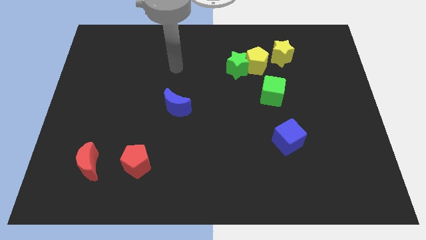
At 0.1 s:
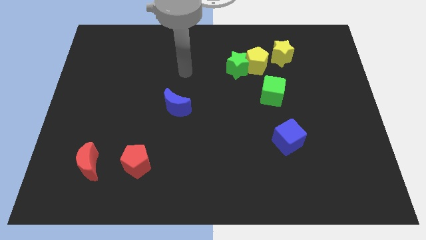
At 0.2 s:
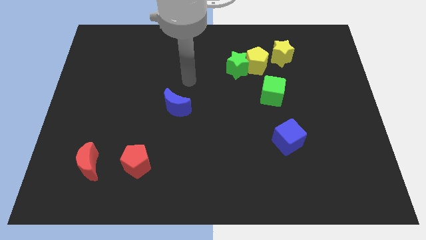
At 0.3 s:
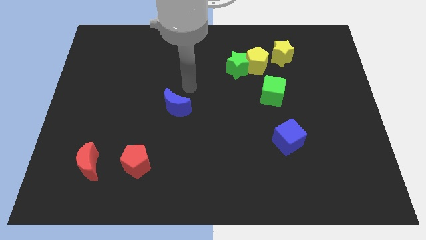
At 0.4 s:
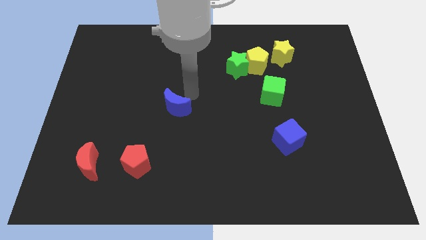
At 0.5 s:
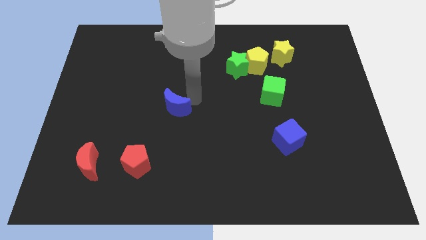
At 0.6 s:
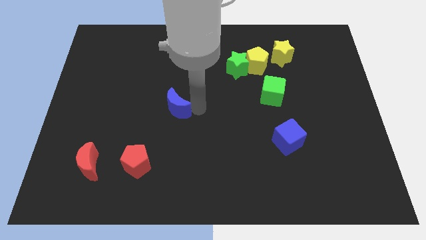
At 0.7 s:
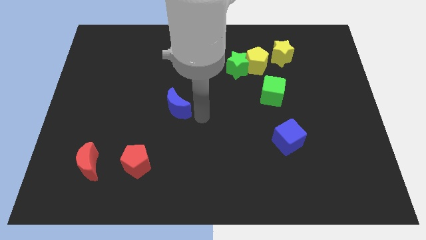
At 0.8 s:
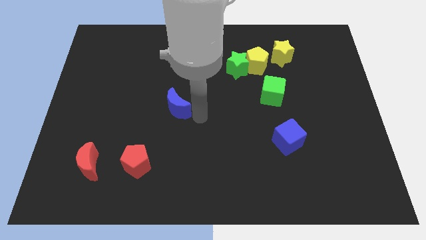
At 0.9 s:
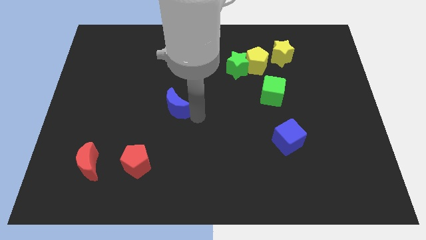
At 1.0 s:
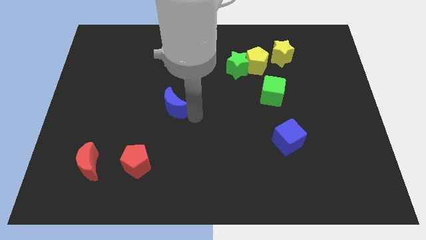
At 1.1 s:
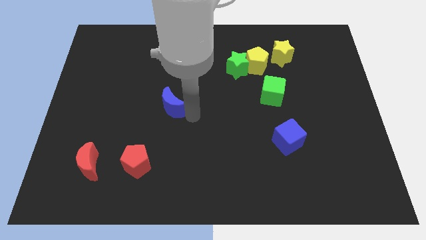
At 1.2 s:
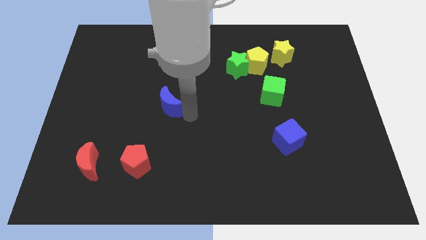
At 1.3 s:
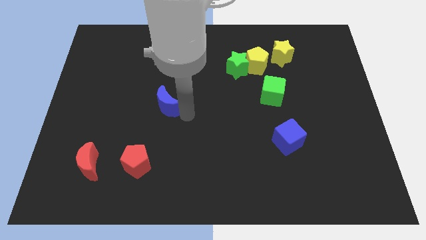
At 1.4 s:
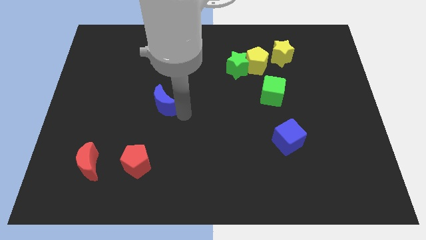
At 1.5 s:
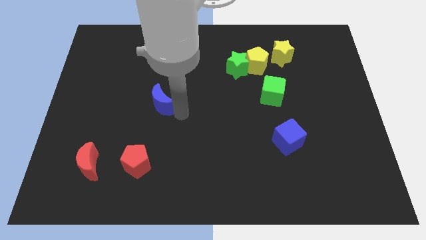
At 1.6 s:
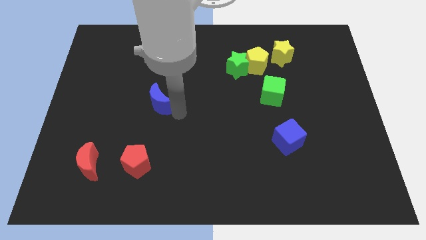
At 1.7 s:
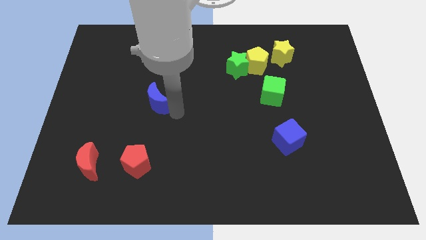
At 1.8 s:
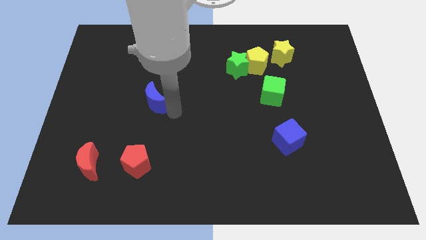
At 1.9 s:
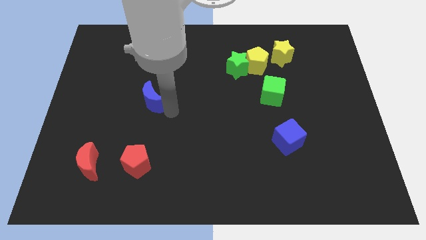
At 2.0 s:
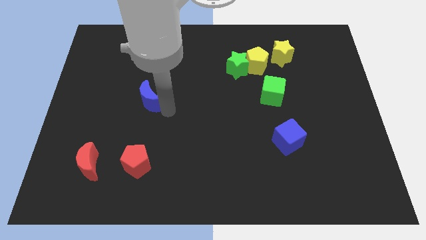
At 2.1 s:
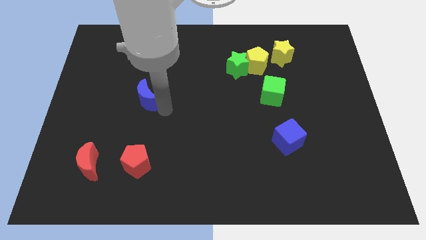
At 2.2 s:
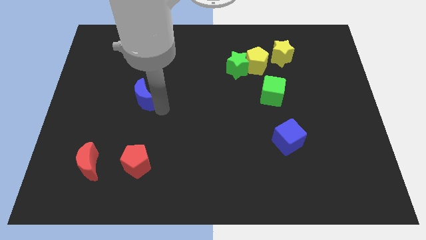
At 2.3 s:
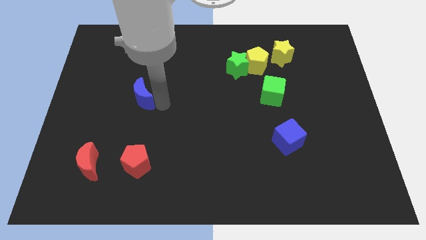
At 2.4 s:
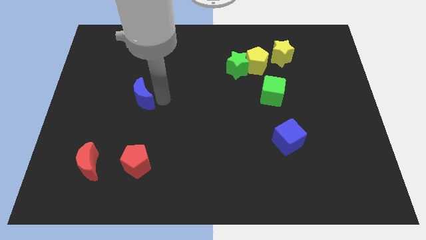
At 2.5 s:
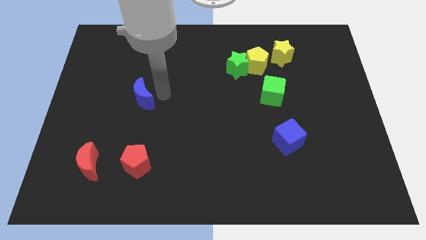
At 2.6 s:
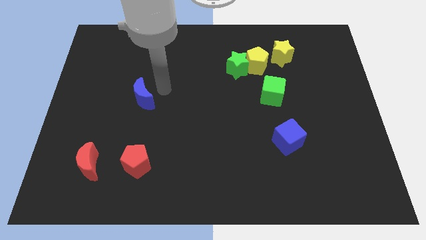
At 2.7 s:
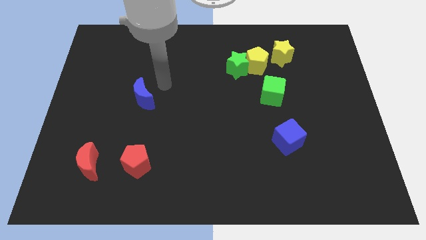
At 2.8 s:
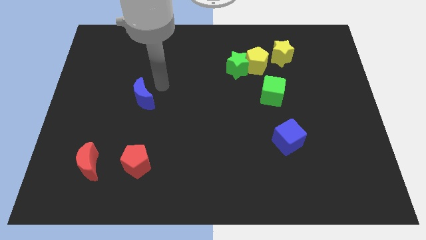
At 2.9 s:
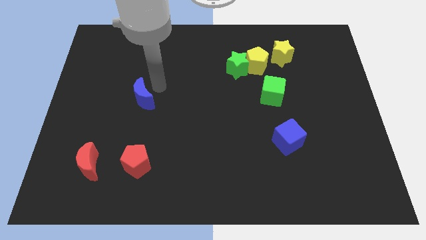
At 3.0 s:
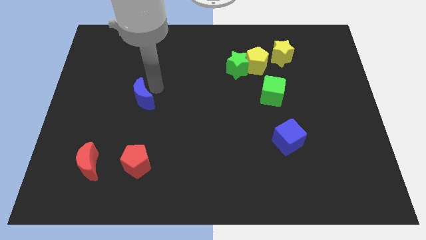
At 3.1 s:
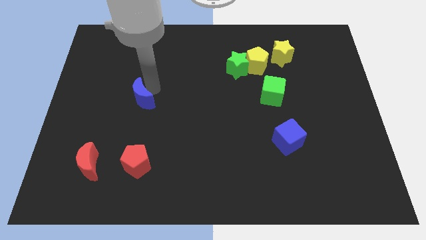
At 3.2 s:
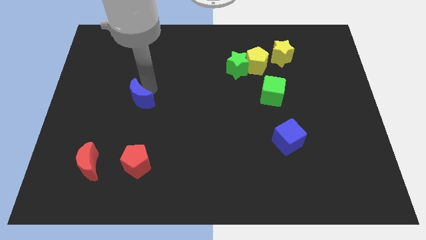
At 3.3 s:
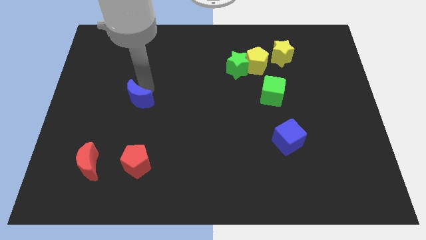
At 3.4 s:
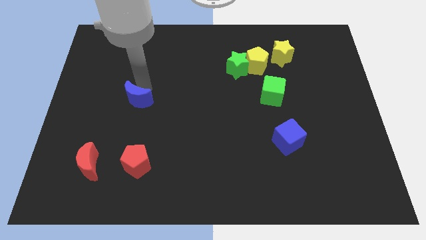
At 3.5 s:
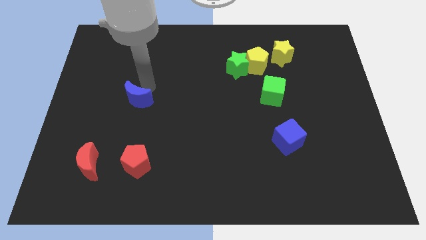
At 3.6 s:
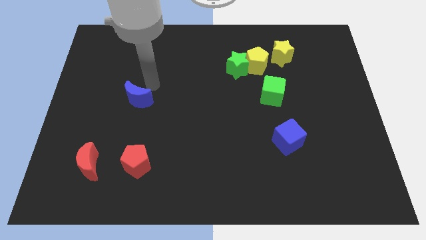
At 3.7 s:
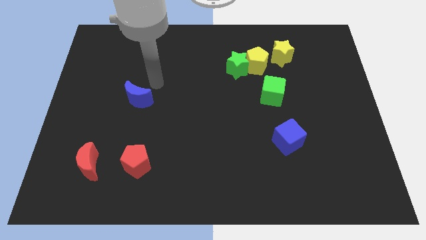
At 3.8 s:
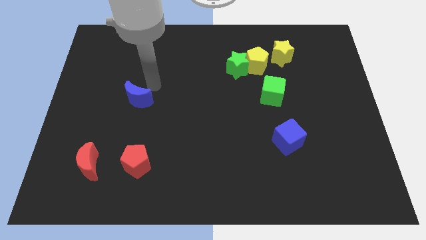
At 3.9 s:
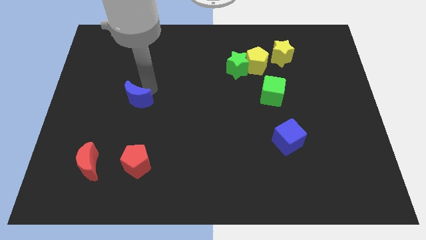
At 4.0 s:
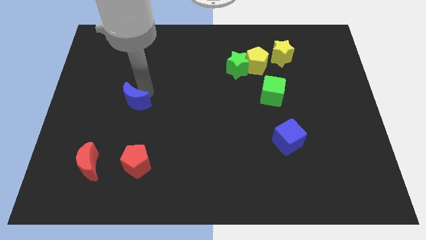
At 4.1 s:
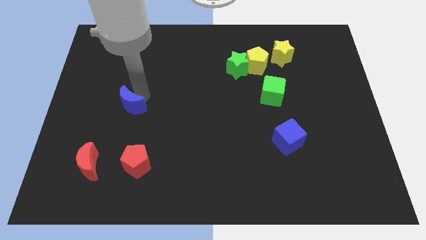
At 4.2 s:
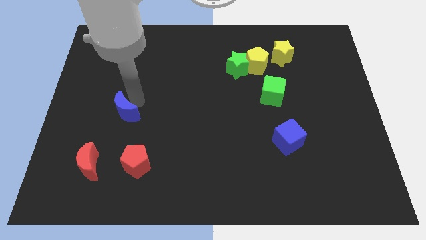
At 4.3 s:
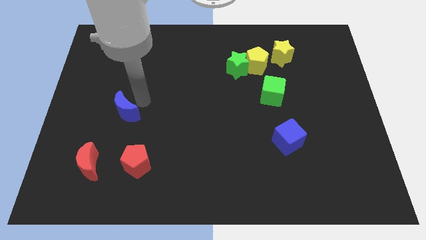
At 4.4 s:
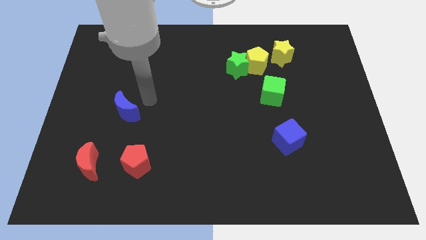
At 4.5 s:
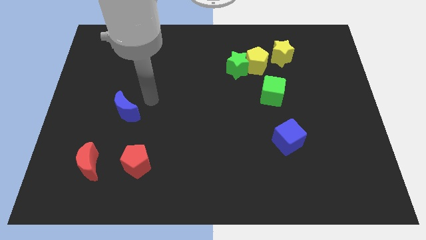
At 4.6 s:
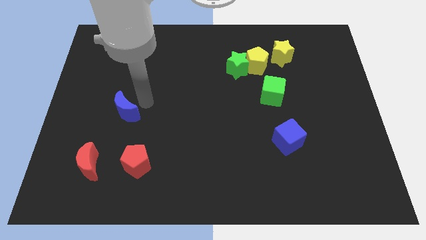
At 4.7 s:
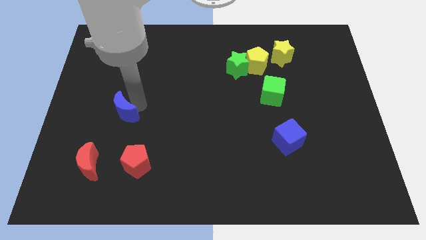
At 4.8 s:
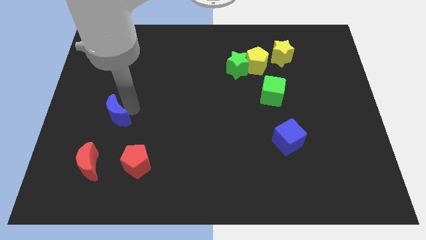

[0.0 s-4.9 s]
put the blue moon to the top of the red moon

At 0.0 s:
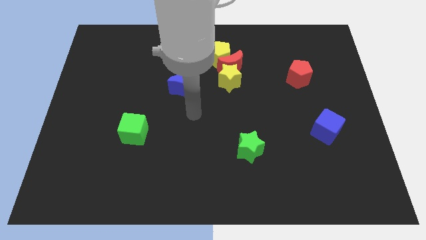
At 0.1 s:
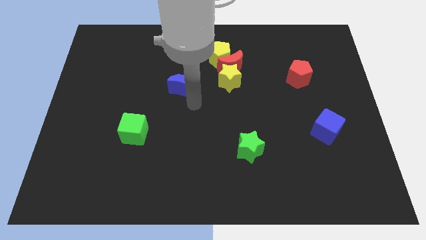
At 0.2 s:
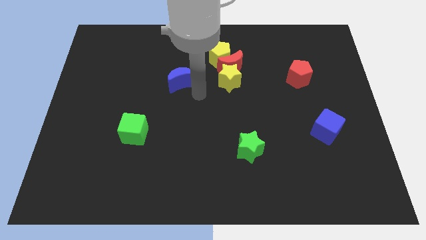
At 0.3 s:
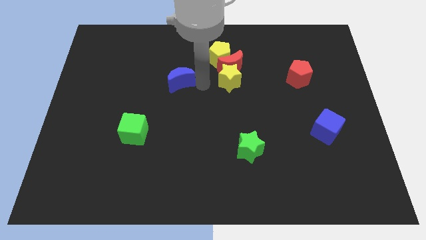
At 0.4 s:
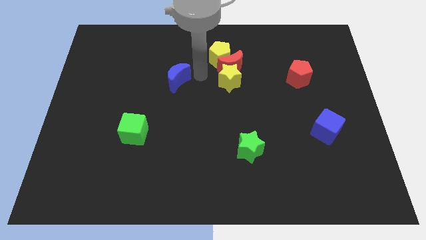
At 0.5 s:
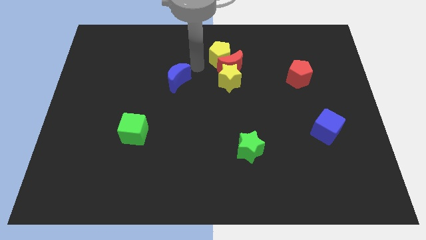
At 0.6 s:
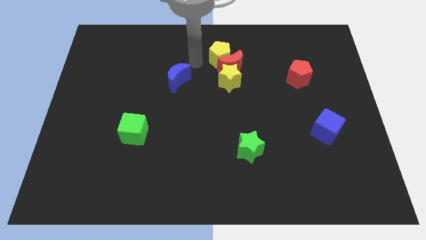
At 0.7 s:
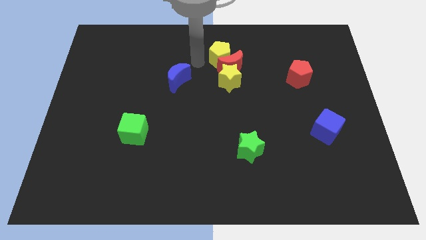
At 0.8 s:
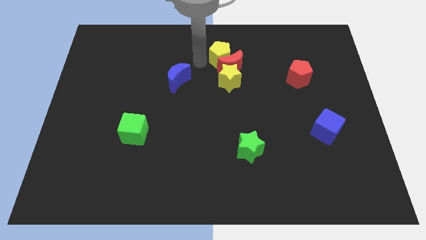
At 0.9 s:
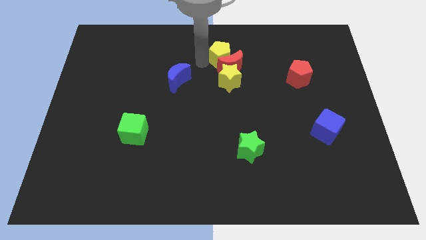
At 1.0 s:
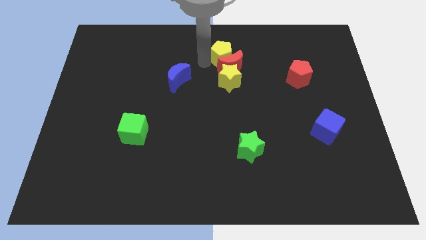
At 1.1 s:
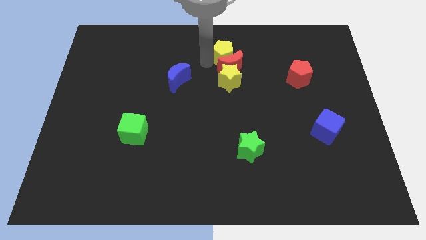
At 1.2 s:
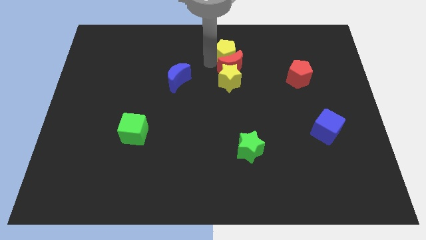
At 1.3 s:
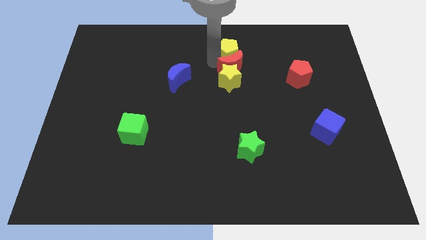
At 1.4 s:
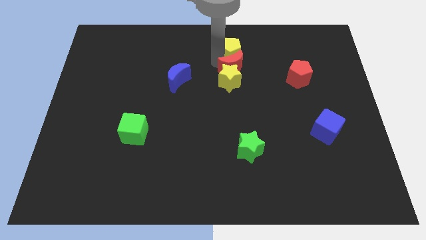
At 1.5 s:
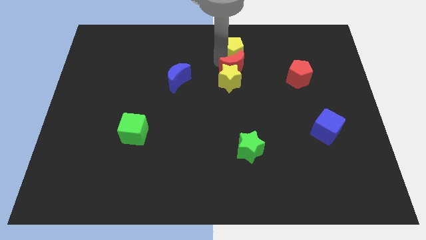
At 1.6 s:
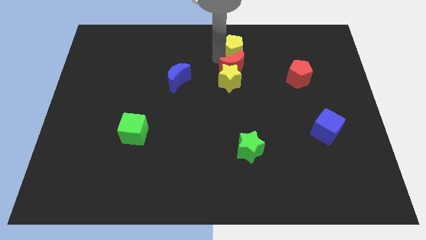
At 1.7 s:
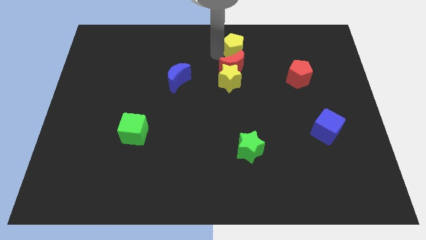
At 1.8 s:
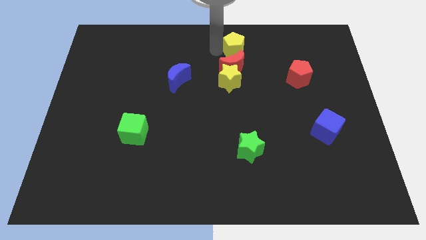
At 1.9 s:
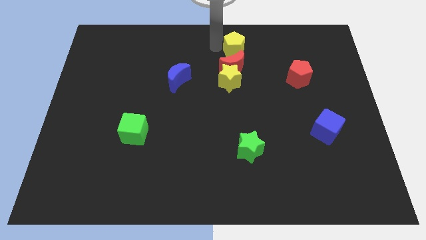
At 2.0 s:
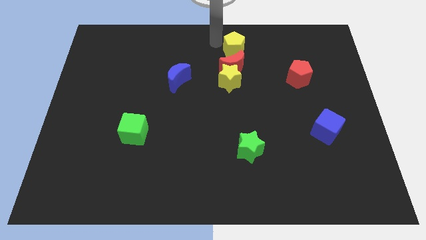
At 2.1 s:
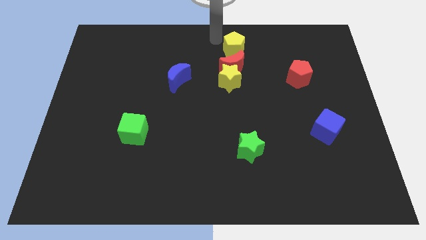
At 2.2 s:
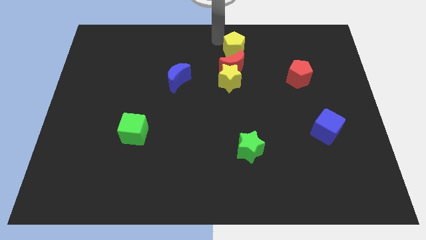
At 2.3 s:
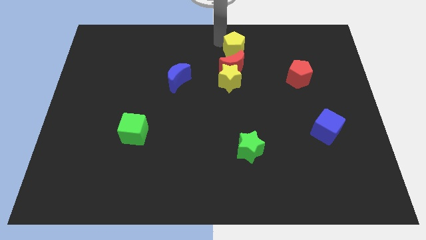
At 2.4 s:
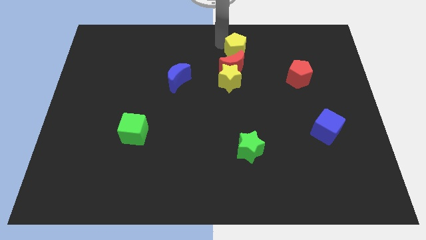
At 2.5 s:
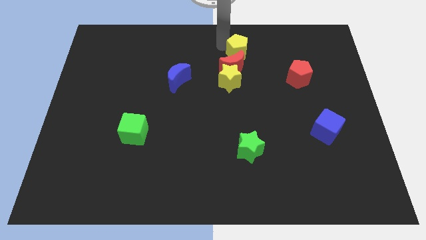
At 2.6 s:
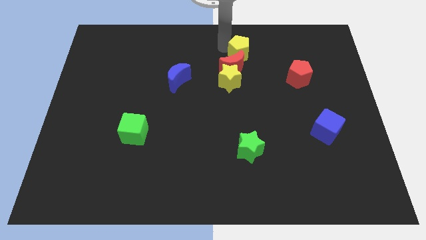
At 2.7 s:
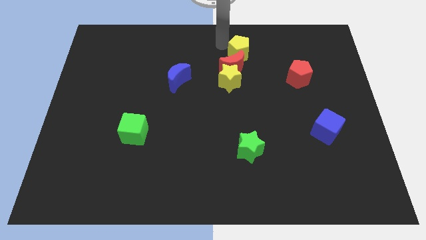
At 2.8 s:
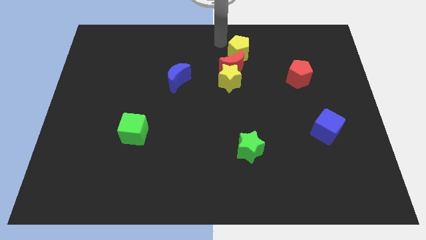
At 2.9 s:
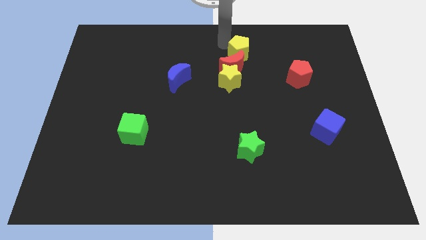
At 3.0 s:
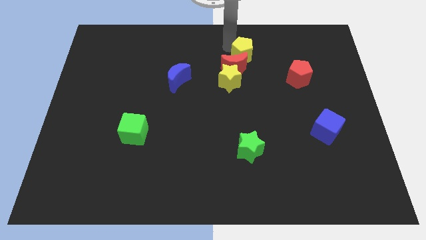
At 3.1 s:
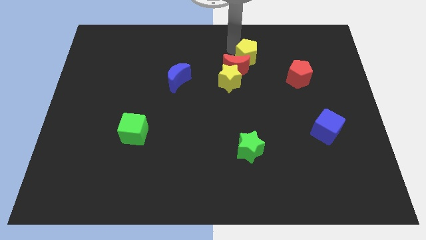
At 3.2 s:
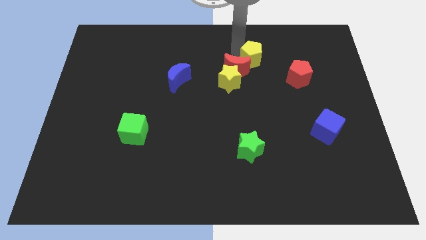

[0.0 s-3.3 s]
push the yellow pentagon just right of the red moon
